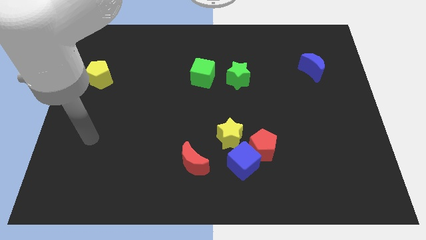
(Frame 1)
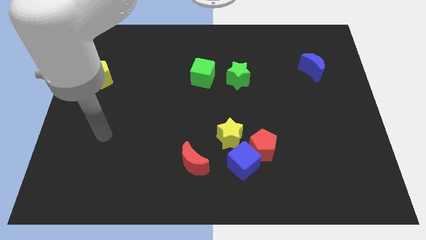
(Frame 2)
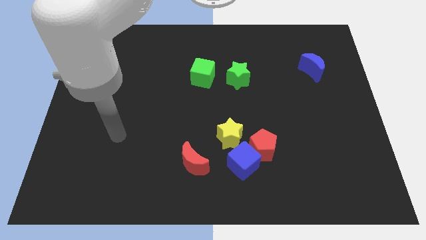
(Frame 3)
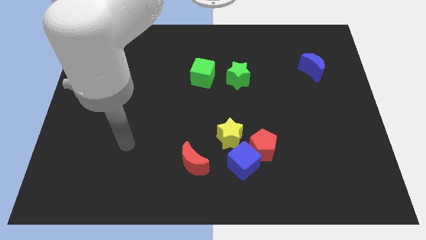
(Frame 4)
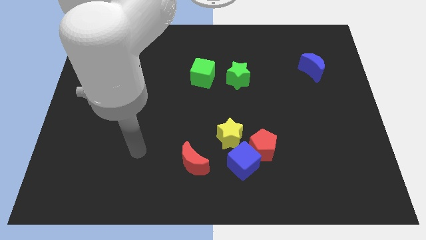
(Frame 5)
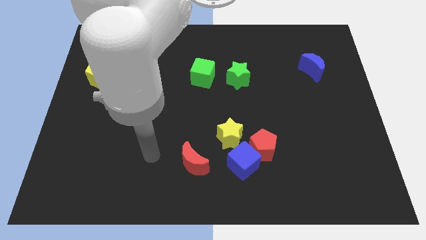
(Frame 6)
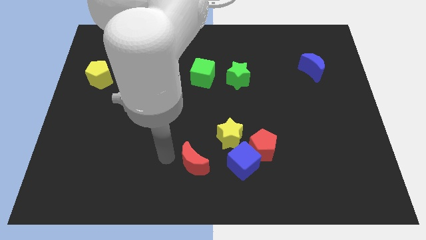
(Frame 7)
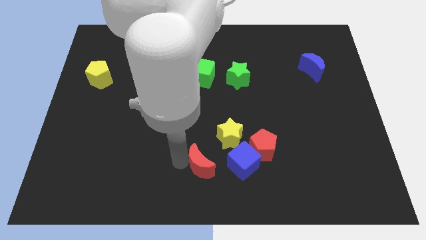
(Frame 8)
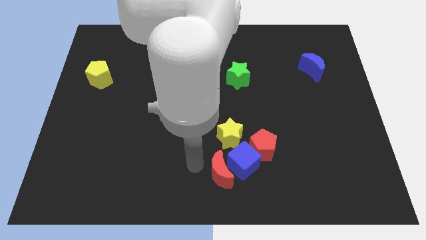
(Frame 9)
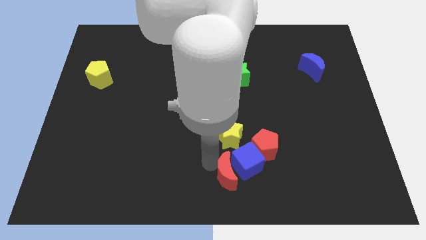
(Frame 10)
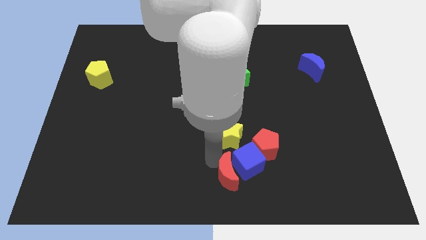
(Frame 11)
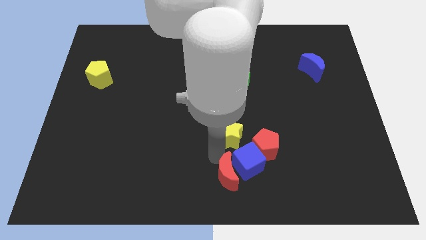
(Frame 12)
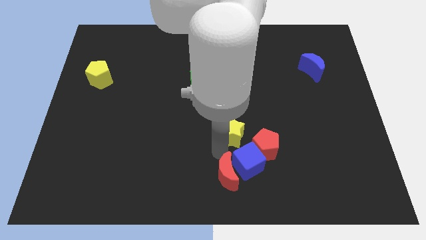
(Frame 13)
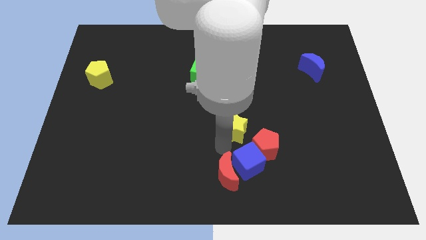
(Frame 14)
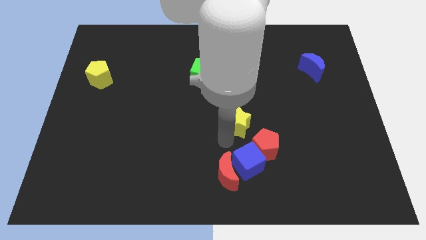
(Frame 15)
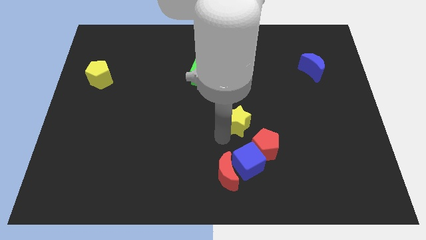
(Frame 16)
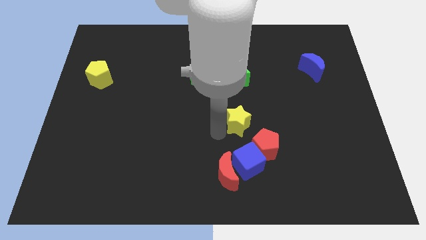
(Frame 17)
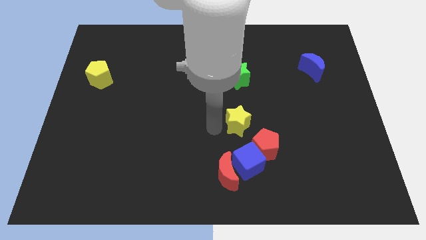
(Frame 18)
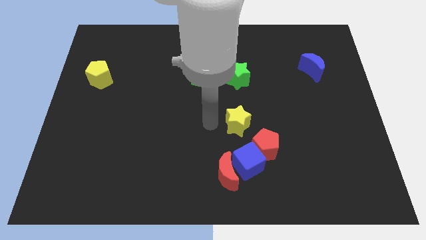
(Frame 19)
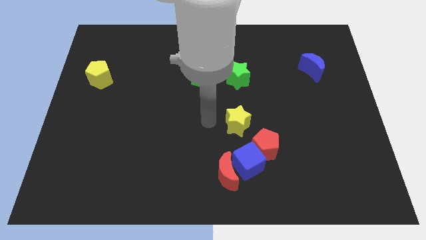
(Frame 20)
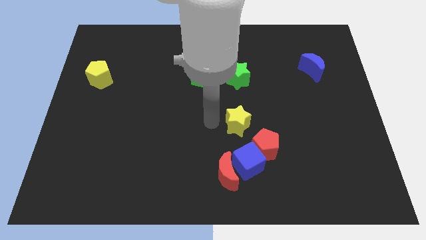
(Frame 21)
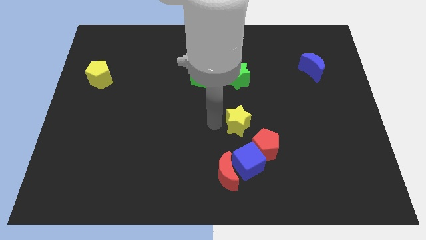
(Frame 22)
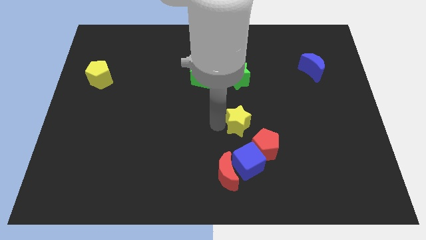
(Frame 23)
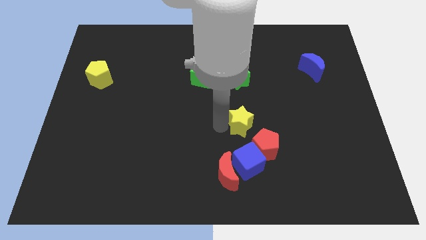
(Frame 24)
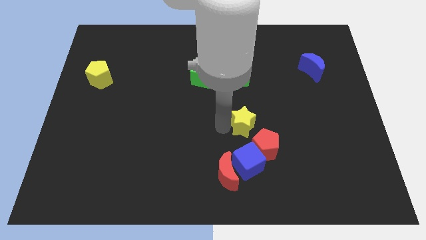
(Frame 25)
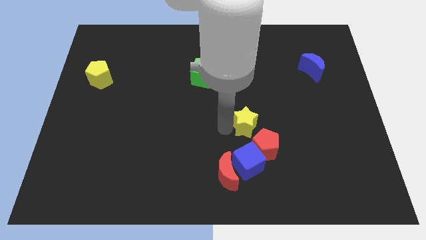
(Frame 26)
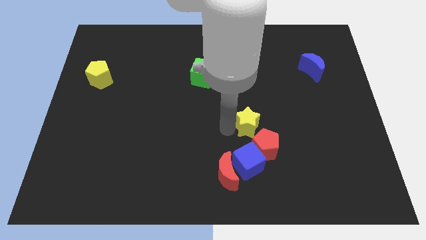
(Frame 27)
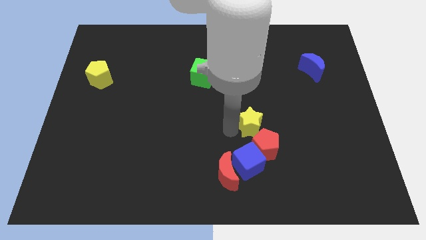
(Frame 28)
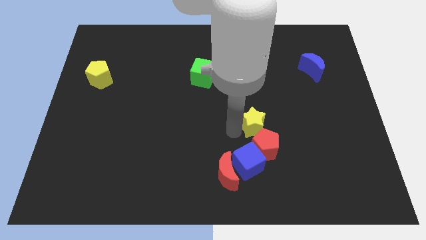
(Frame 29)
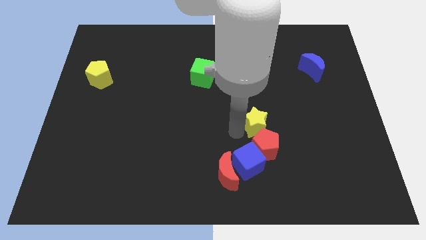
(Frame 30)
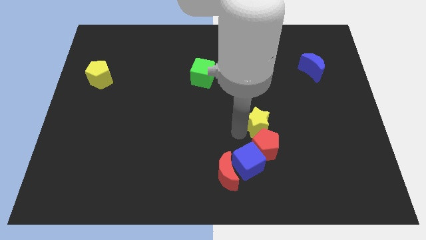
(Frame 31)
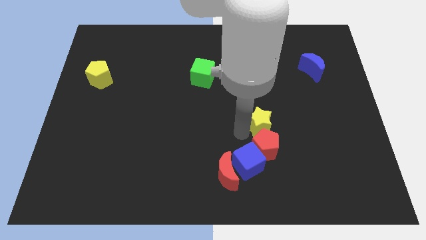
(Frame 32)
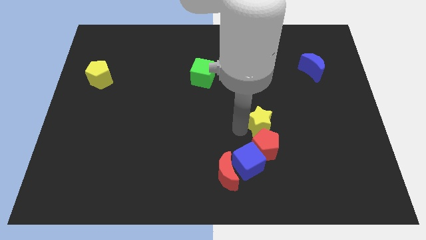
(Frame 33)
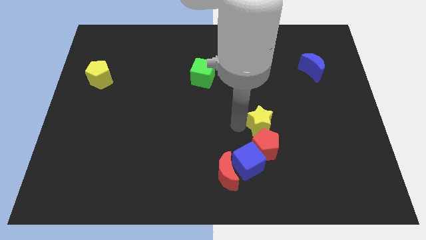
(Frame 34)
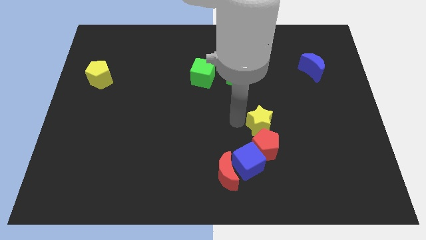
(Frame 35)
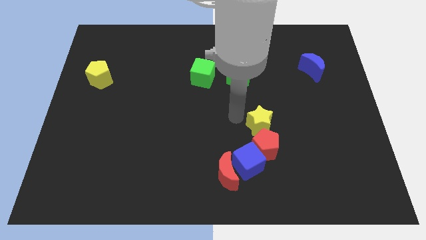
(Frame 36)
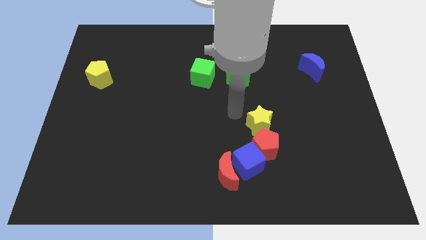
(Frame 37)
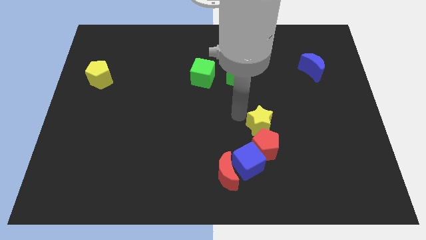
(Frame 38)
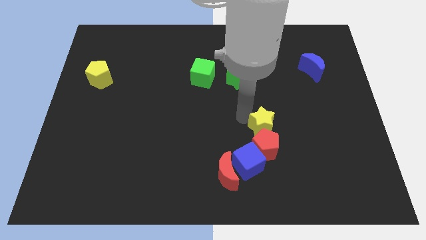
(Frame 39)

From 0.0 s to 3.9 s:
slide the yellow star slightly to the right

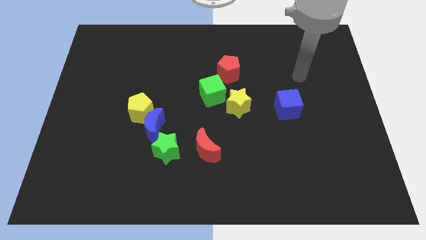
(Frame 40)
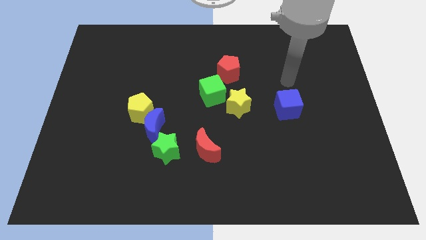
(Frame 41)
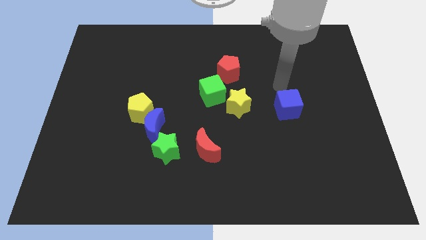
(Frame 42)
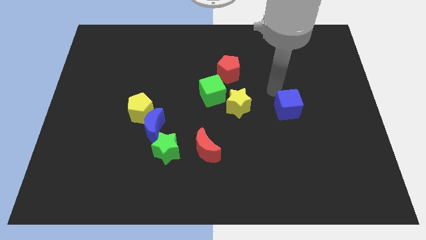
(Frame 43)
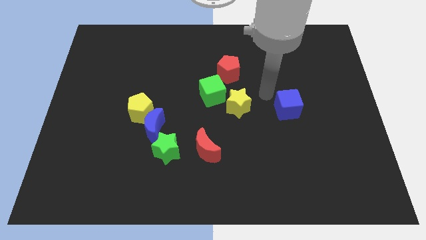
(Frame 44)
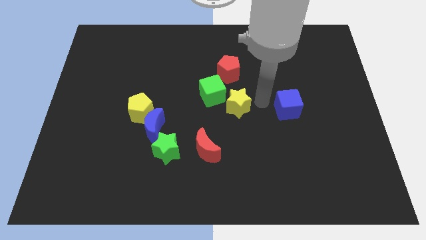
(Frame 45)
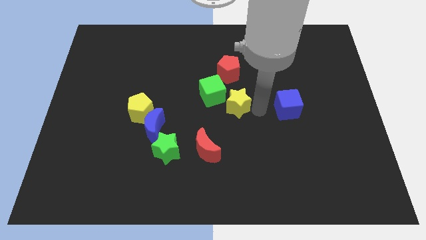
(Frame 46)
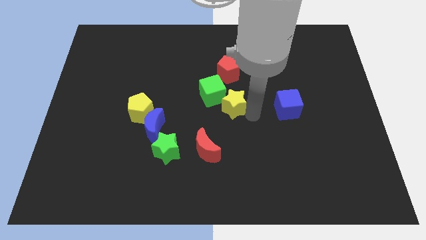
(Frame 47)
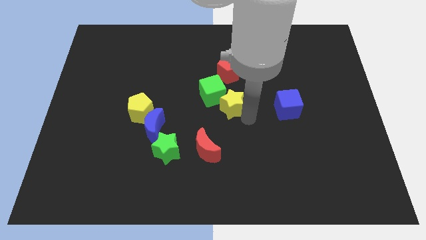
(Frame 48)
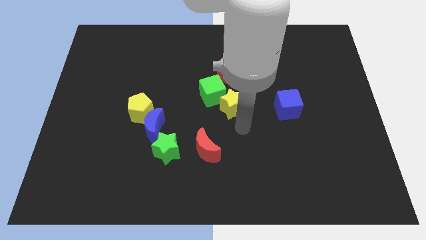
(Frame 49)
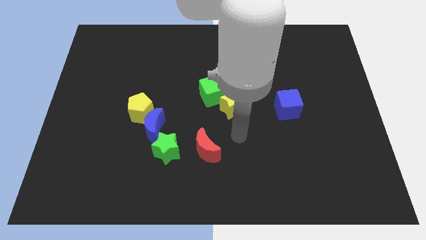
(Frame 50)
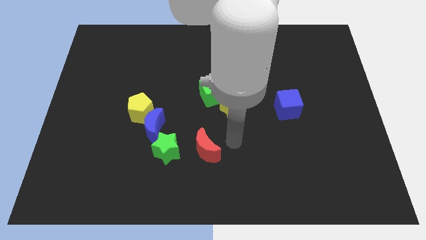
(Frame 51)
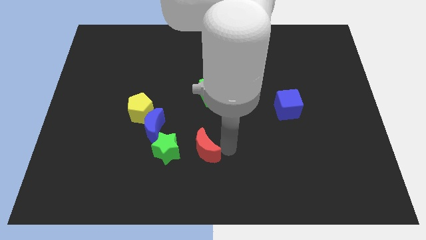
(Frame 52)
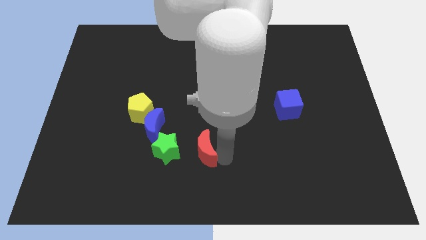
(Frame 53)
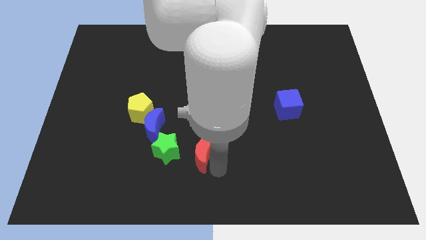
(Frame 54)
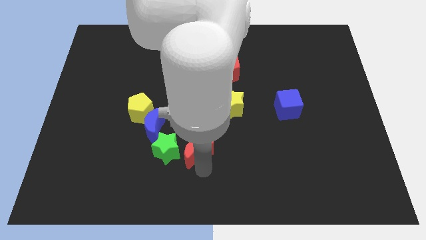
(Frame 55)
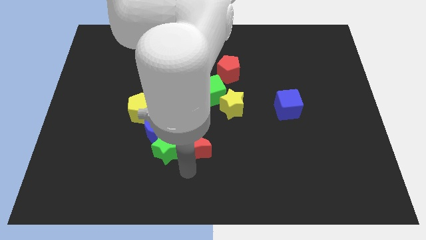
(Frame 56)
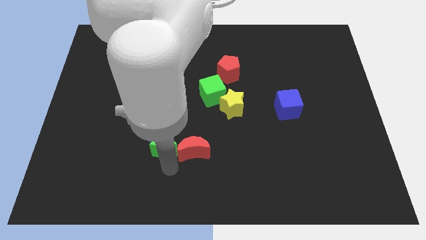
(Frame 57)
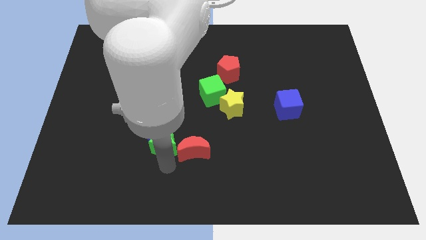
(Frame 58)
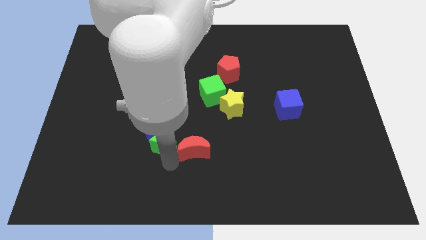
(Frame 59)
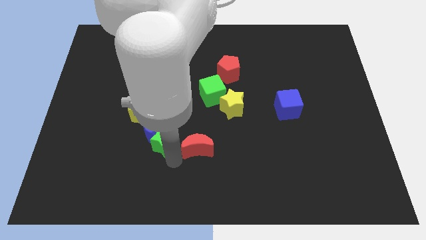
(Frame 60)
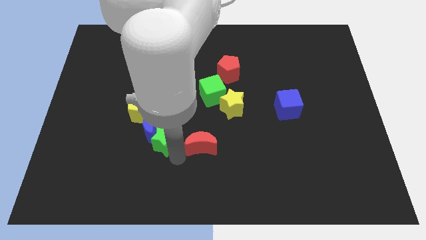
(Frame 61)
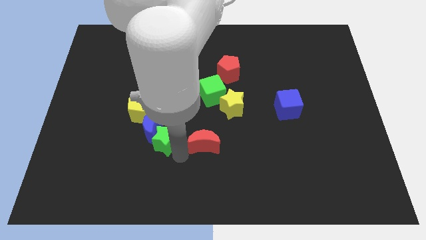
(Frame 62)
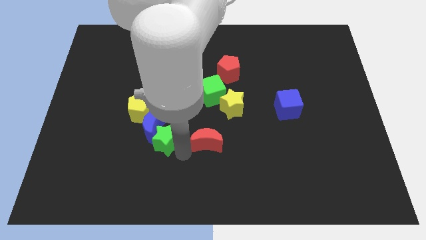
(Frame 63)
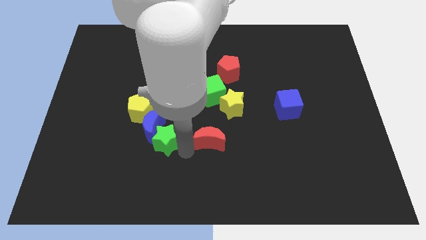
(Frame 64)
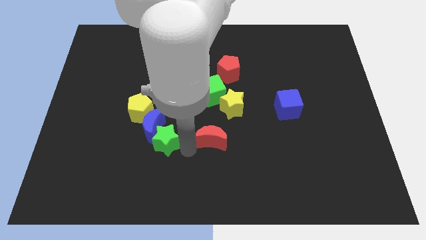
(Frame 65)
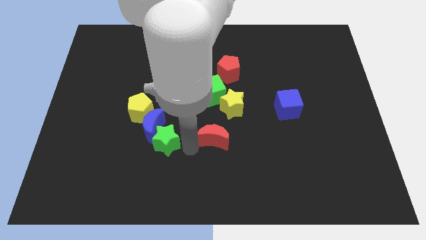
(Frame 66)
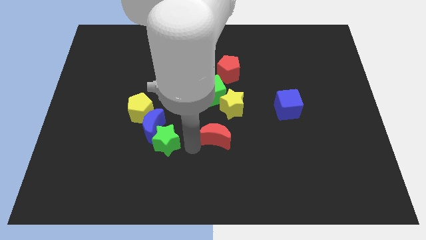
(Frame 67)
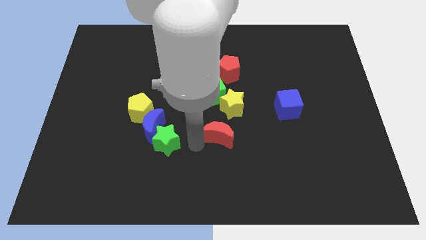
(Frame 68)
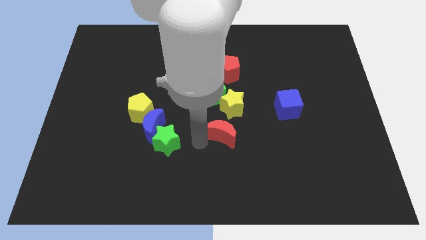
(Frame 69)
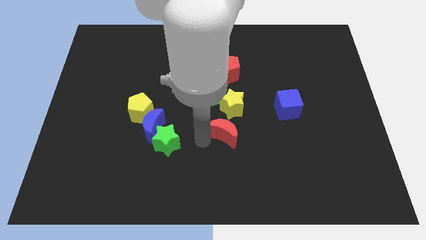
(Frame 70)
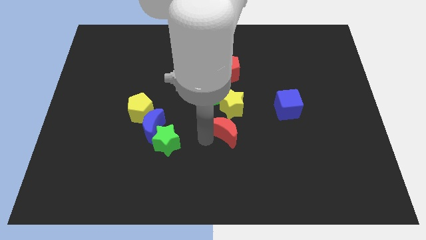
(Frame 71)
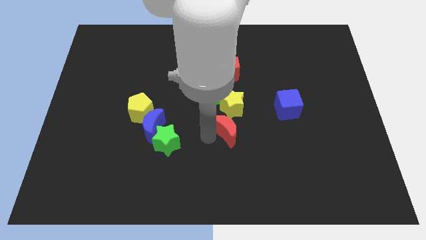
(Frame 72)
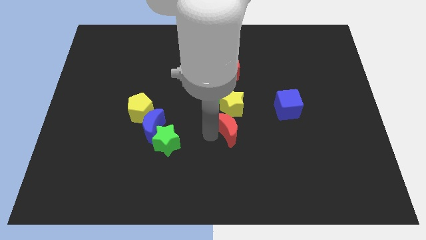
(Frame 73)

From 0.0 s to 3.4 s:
slide the red moon upwards and then right somewhat

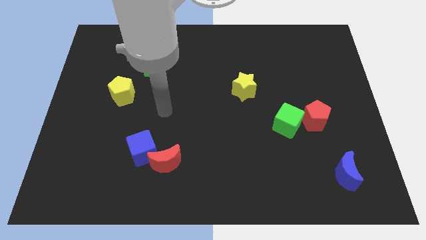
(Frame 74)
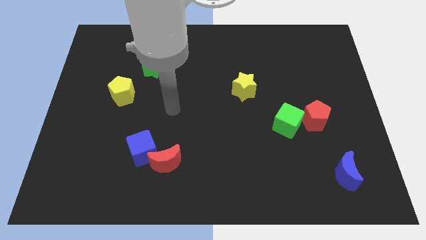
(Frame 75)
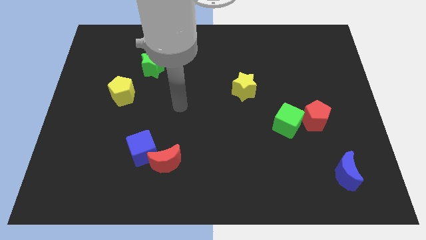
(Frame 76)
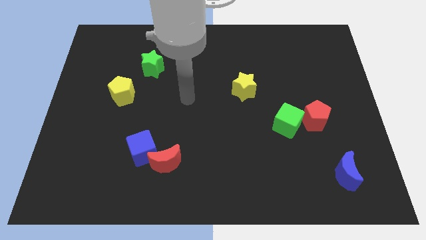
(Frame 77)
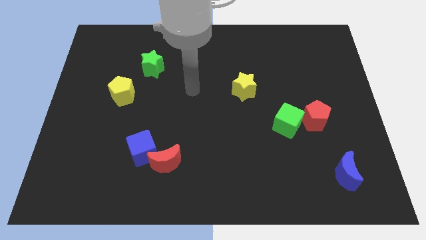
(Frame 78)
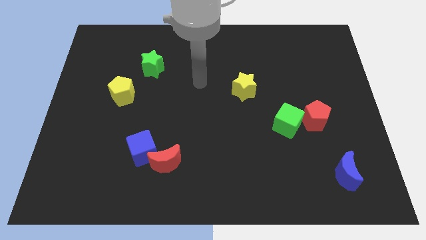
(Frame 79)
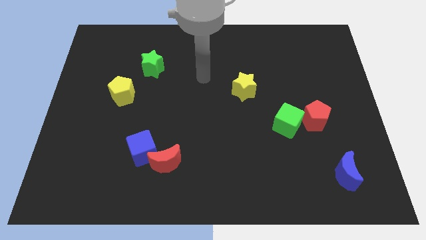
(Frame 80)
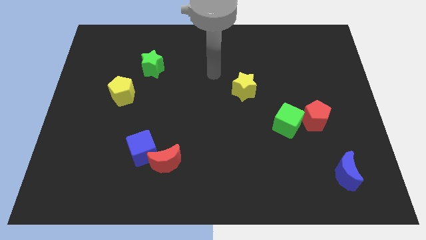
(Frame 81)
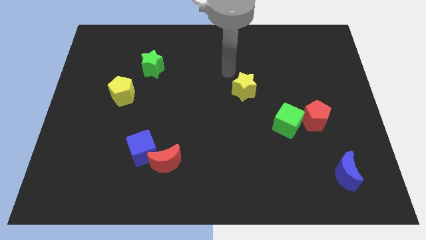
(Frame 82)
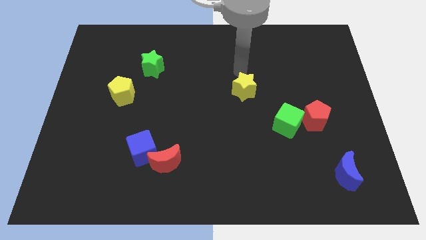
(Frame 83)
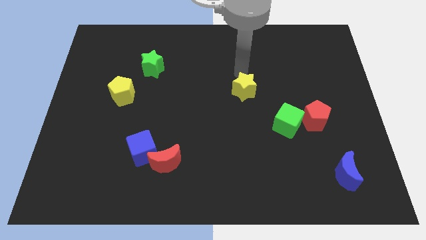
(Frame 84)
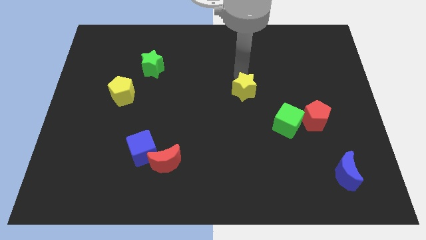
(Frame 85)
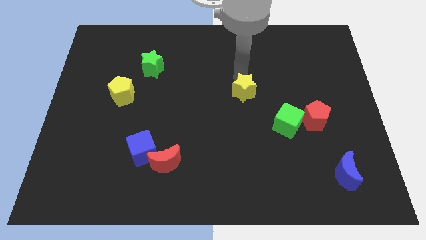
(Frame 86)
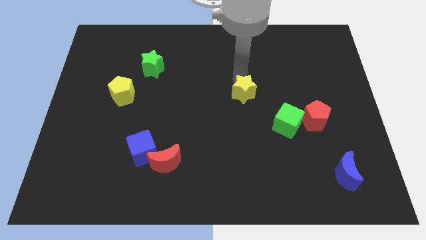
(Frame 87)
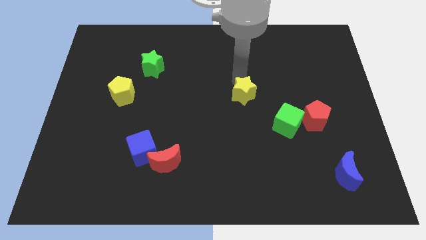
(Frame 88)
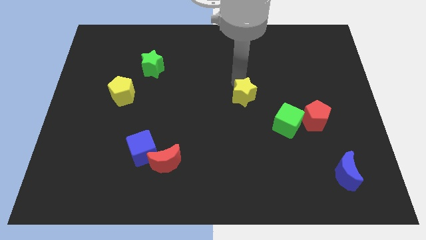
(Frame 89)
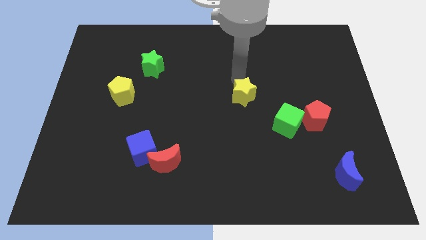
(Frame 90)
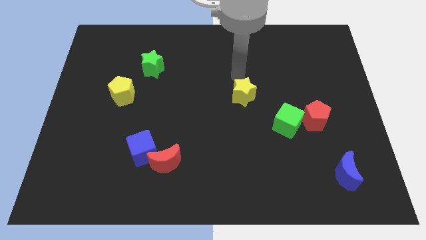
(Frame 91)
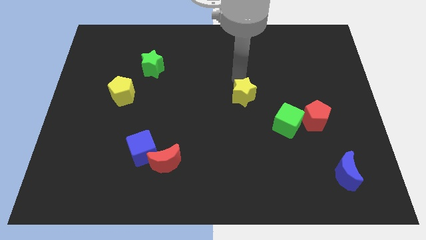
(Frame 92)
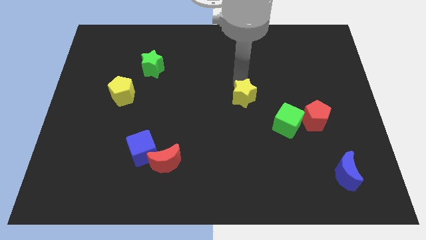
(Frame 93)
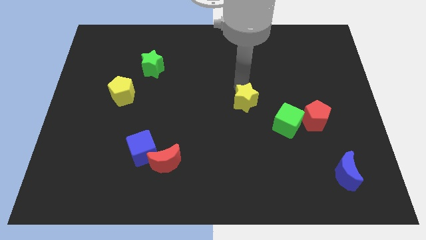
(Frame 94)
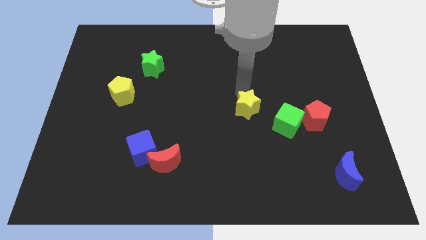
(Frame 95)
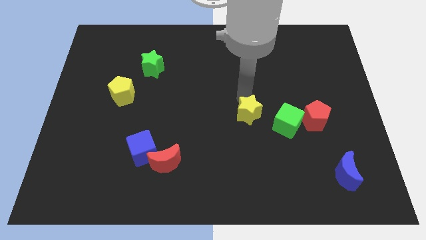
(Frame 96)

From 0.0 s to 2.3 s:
move the yellow star a bit downwards
